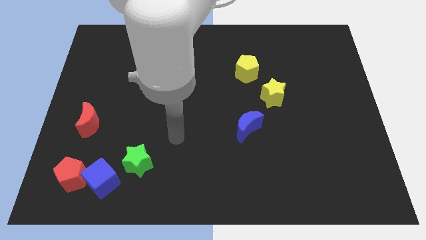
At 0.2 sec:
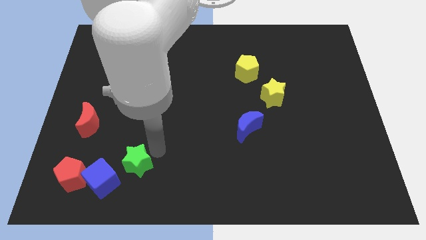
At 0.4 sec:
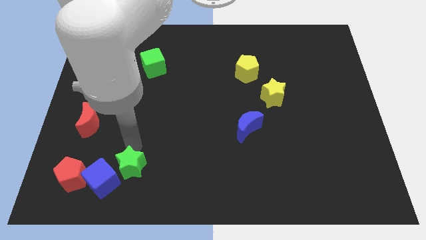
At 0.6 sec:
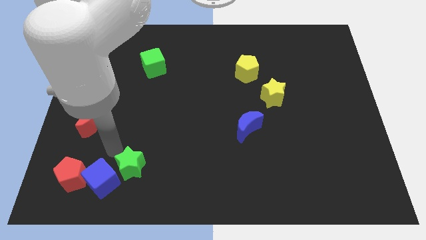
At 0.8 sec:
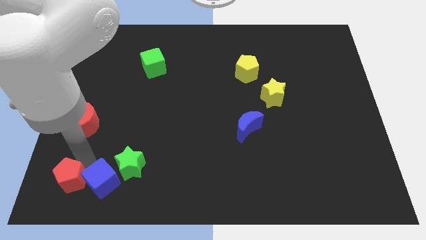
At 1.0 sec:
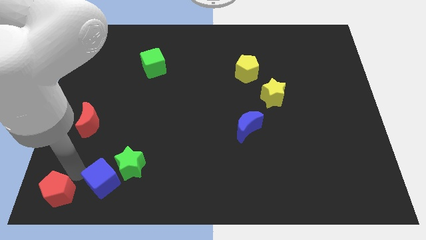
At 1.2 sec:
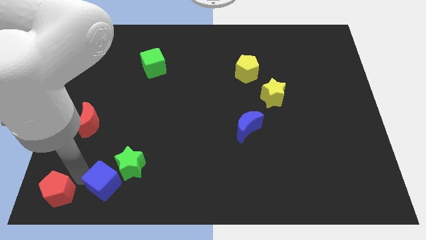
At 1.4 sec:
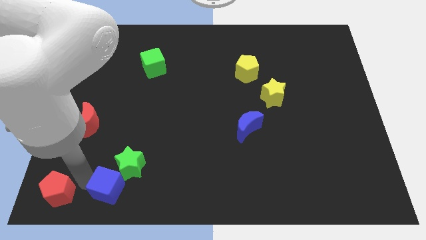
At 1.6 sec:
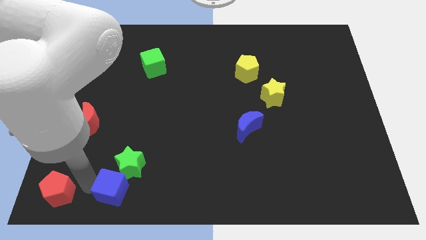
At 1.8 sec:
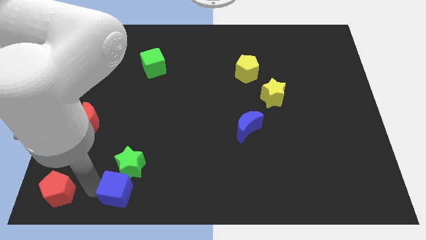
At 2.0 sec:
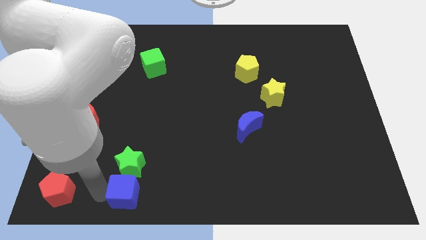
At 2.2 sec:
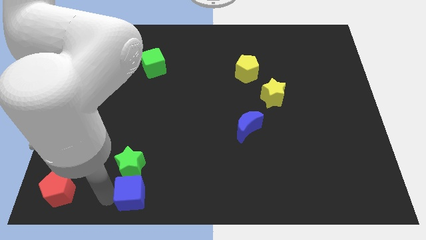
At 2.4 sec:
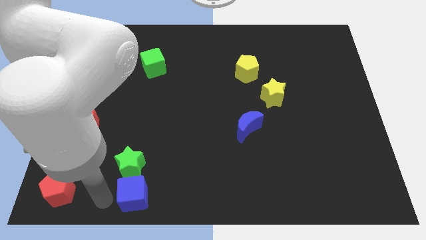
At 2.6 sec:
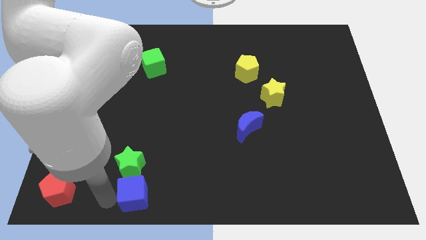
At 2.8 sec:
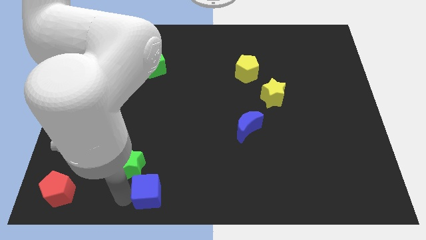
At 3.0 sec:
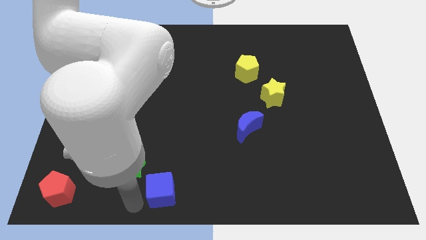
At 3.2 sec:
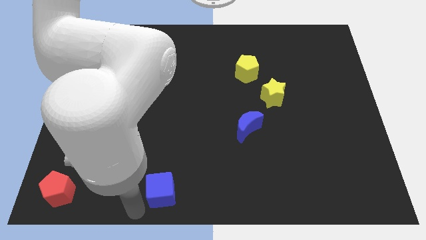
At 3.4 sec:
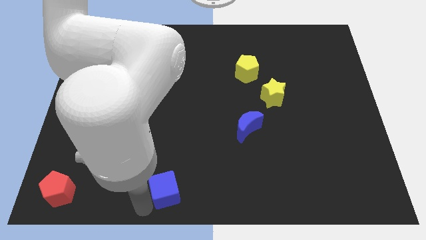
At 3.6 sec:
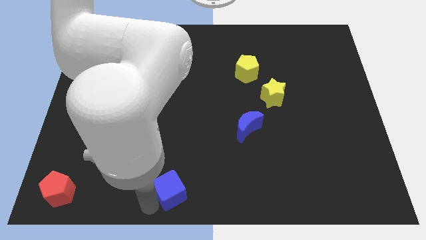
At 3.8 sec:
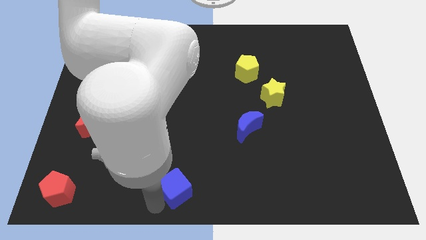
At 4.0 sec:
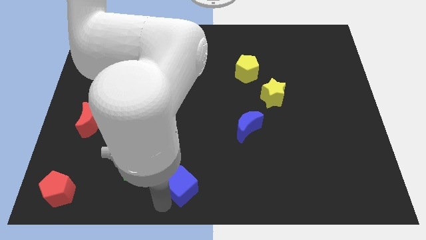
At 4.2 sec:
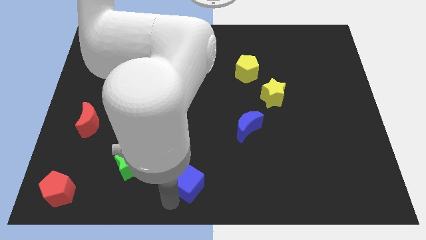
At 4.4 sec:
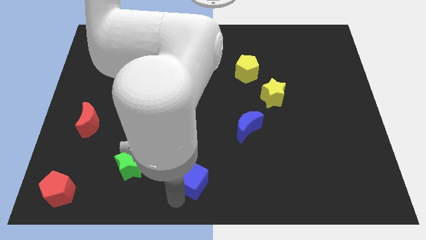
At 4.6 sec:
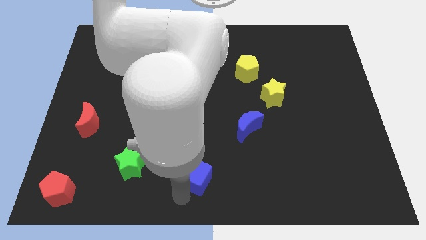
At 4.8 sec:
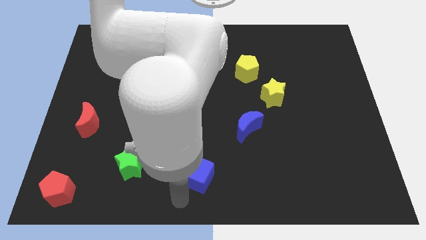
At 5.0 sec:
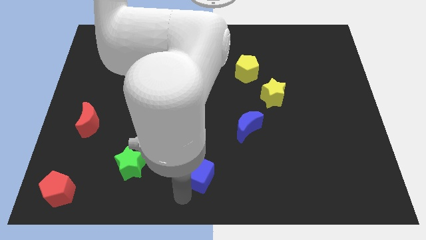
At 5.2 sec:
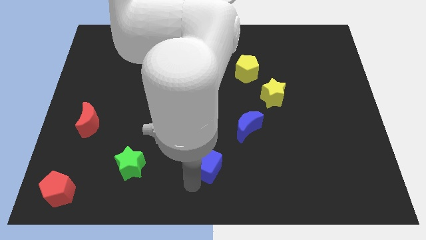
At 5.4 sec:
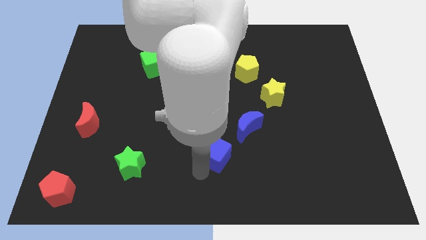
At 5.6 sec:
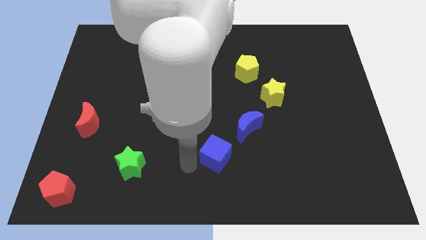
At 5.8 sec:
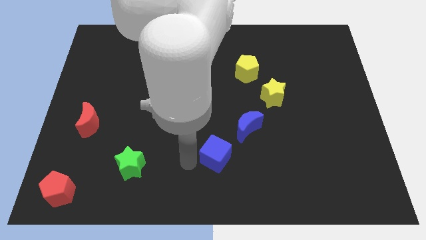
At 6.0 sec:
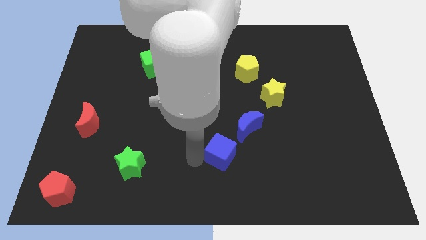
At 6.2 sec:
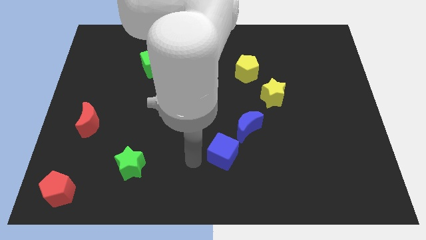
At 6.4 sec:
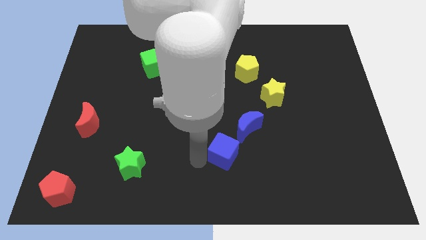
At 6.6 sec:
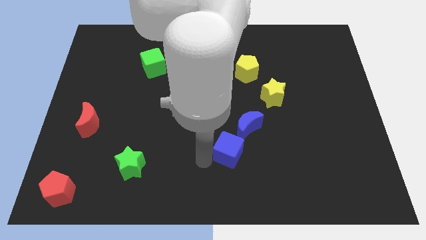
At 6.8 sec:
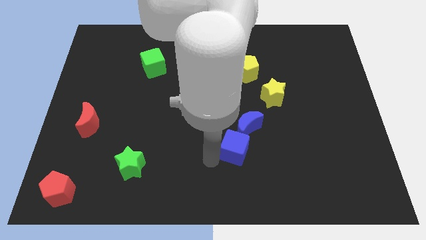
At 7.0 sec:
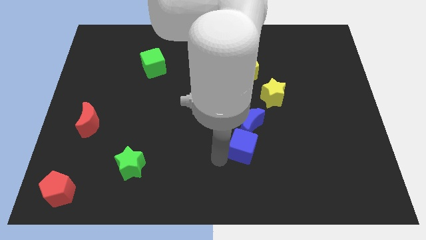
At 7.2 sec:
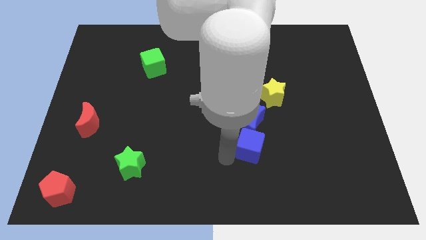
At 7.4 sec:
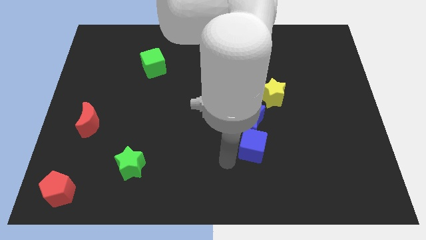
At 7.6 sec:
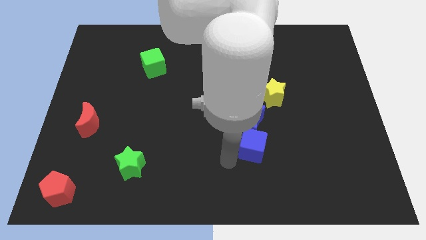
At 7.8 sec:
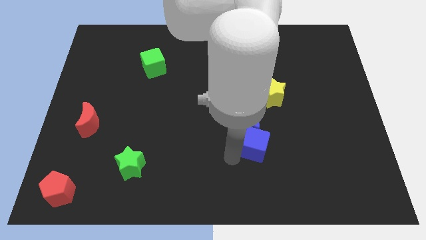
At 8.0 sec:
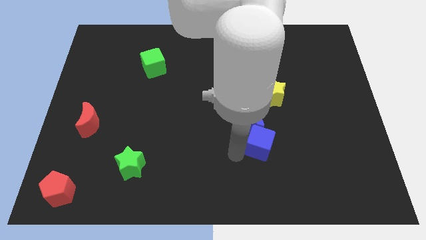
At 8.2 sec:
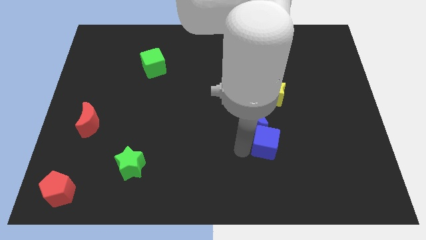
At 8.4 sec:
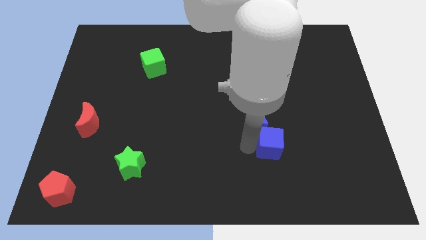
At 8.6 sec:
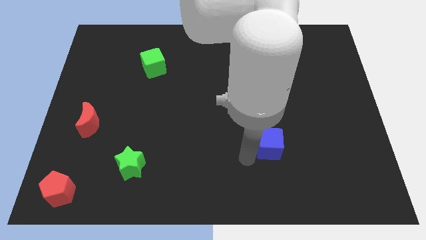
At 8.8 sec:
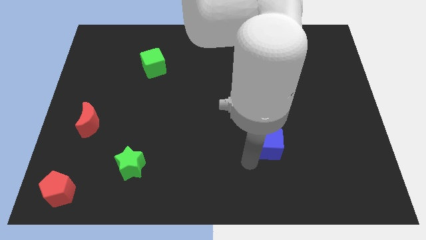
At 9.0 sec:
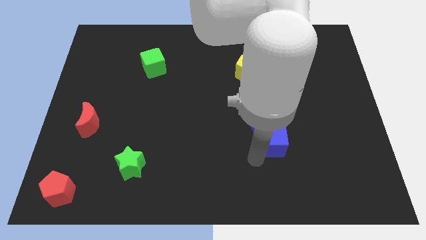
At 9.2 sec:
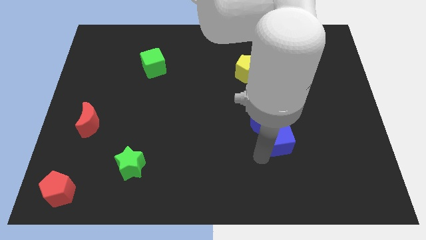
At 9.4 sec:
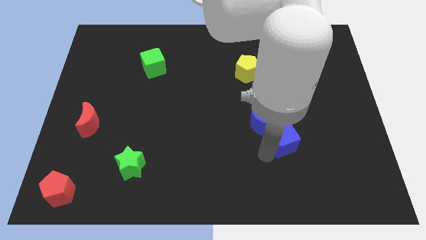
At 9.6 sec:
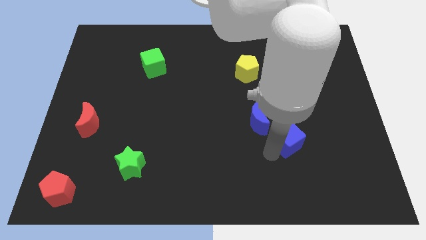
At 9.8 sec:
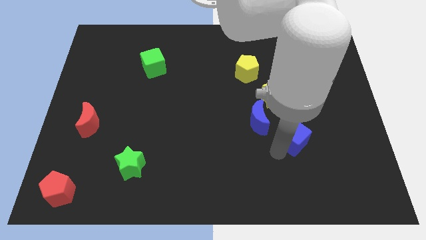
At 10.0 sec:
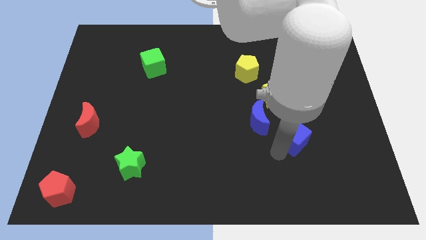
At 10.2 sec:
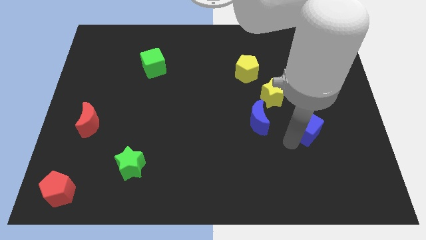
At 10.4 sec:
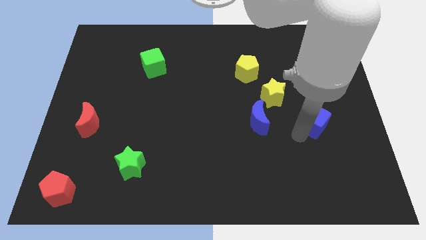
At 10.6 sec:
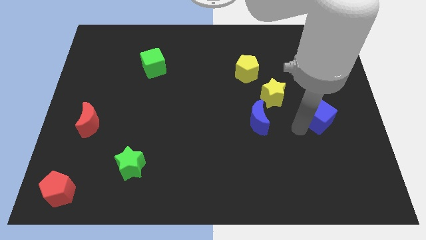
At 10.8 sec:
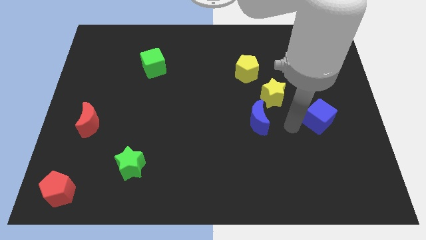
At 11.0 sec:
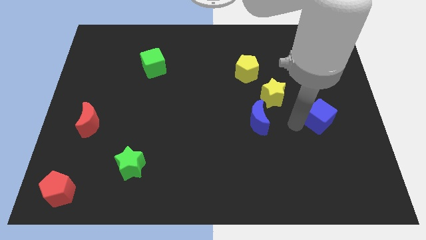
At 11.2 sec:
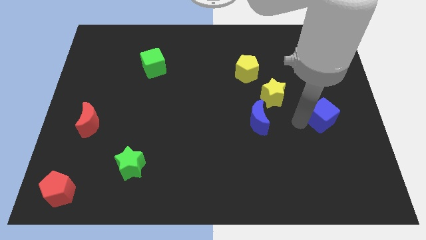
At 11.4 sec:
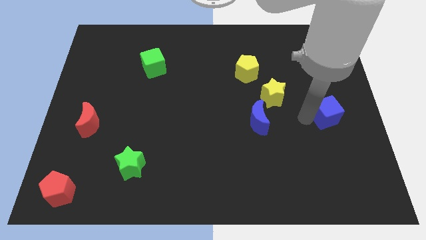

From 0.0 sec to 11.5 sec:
slide the blue cube to the right side
